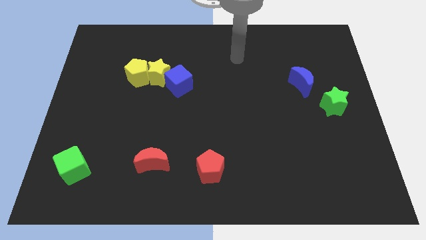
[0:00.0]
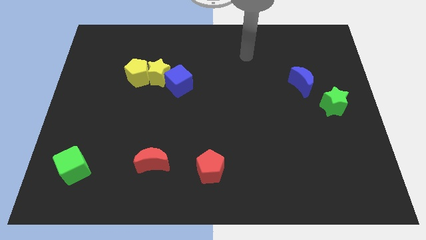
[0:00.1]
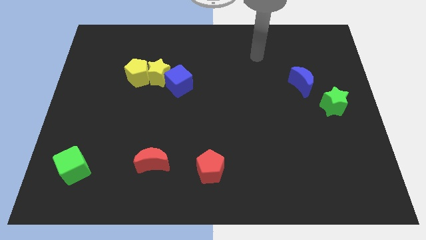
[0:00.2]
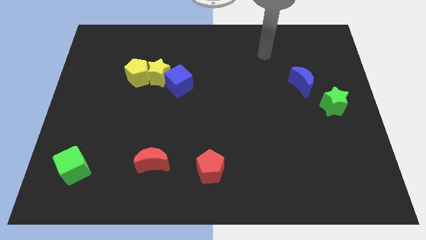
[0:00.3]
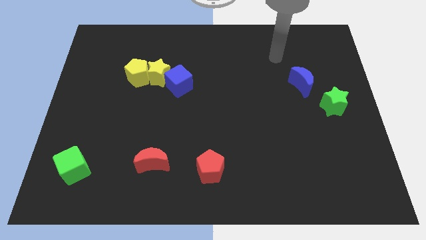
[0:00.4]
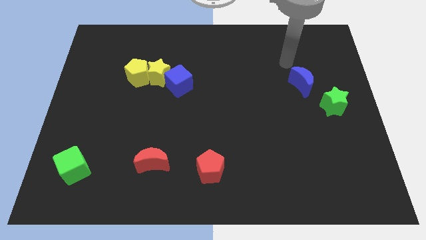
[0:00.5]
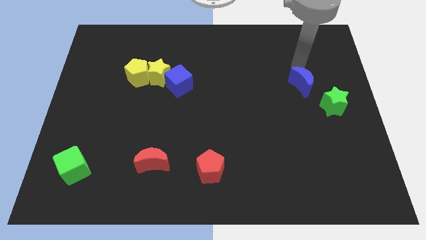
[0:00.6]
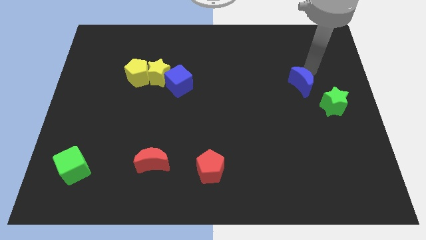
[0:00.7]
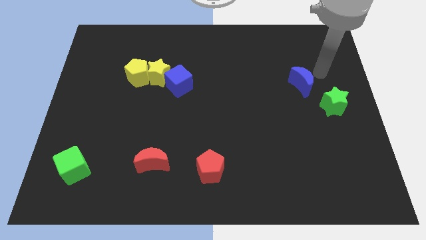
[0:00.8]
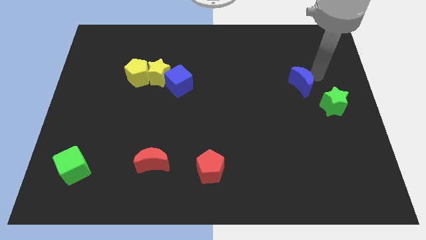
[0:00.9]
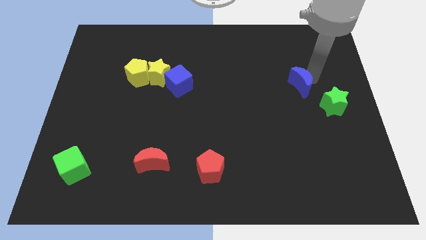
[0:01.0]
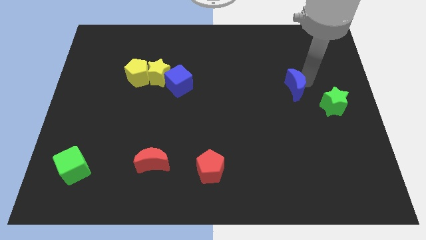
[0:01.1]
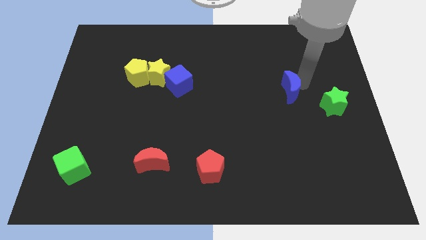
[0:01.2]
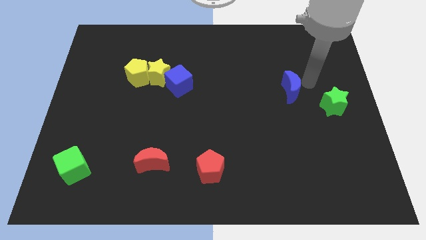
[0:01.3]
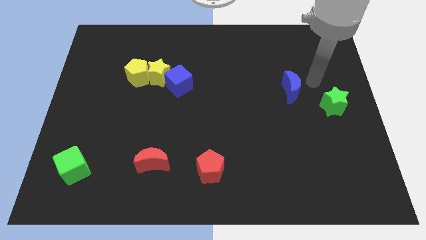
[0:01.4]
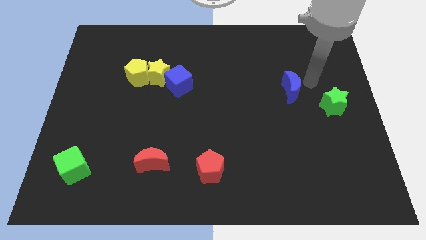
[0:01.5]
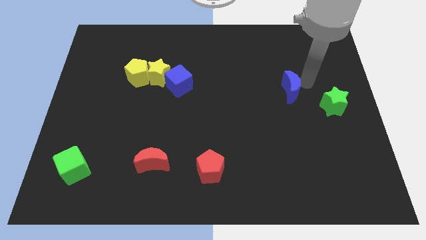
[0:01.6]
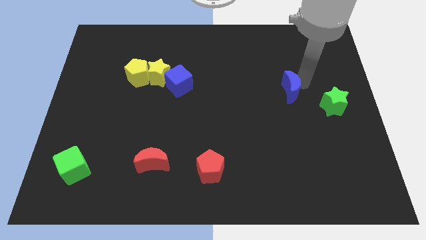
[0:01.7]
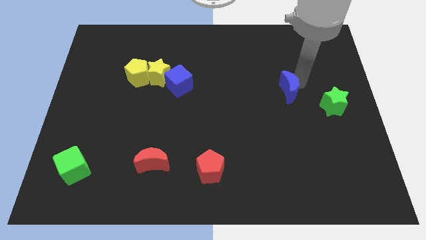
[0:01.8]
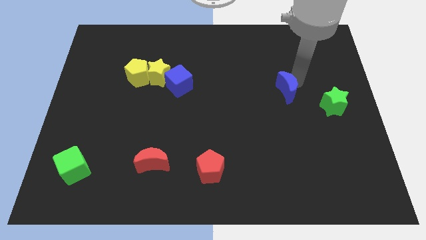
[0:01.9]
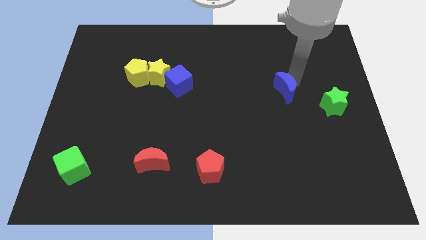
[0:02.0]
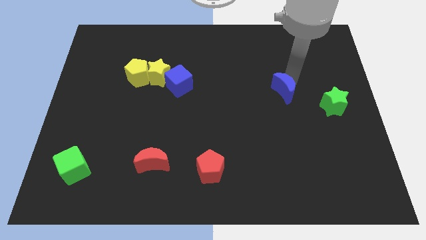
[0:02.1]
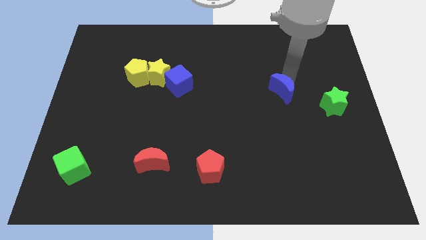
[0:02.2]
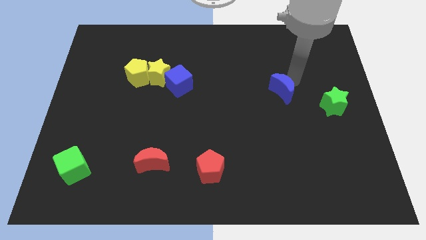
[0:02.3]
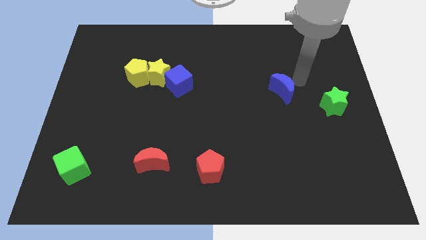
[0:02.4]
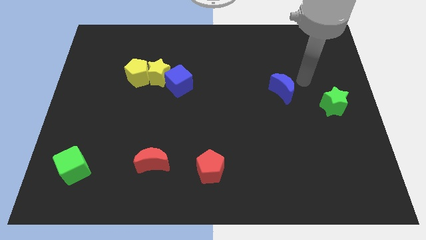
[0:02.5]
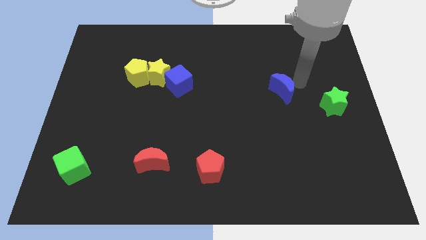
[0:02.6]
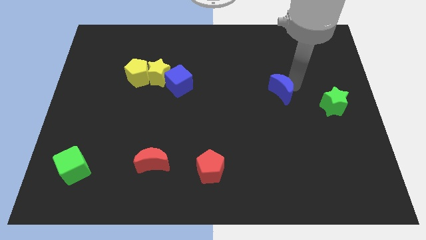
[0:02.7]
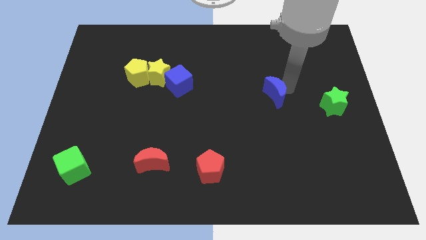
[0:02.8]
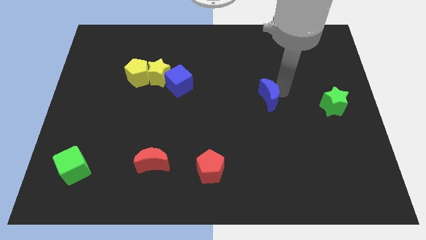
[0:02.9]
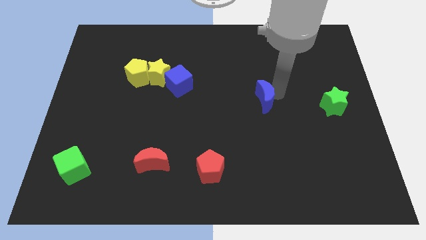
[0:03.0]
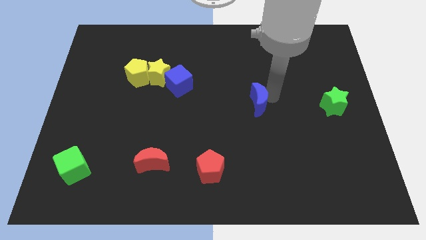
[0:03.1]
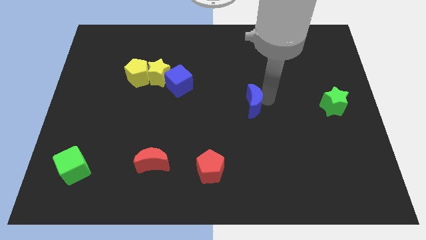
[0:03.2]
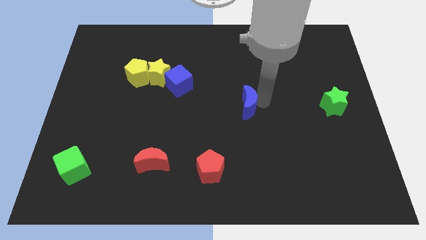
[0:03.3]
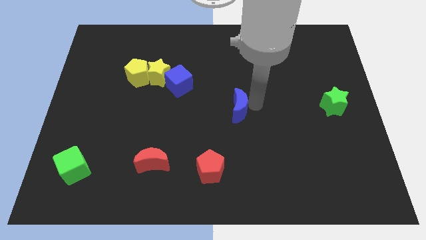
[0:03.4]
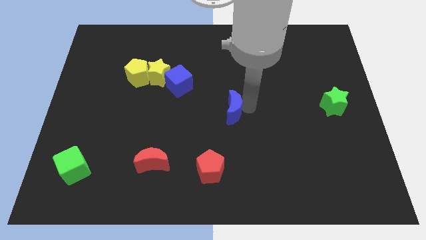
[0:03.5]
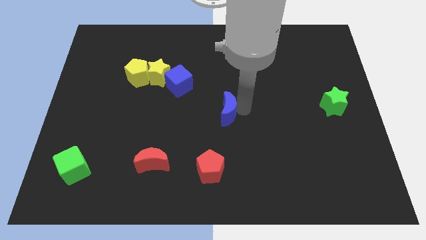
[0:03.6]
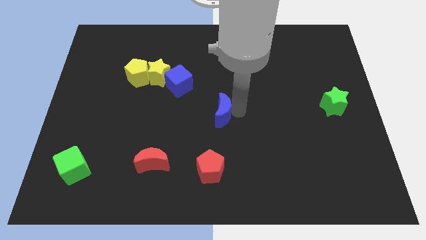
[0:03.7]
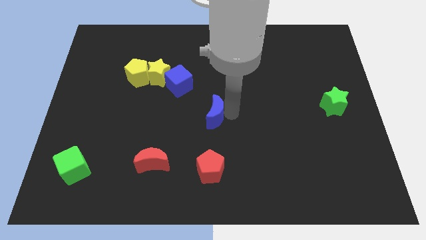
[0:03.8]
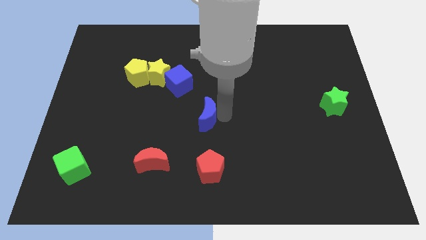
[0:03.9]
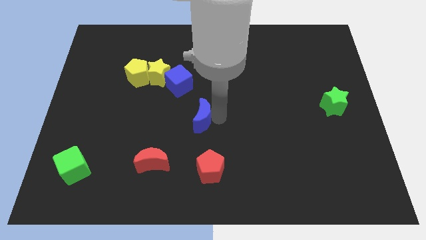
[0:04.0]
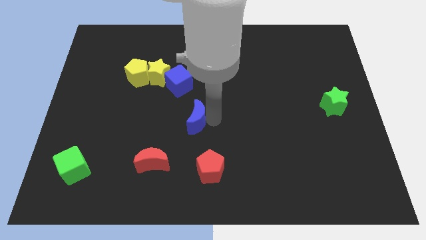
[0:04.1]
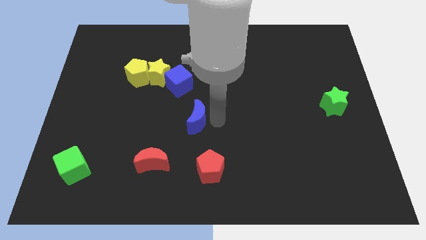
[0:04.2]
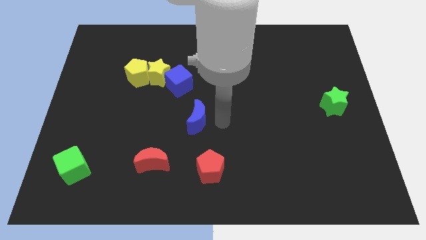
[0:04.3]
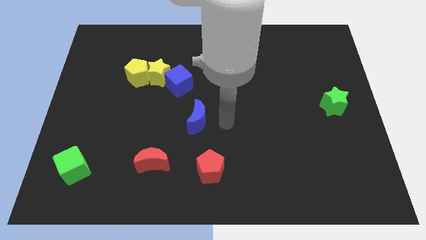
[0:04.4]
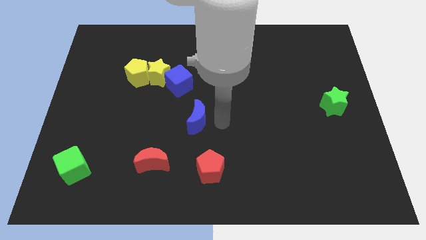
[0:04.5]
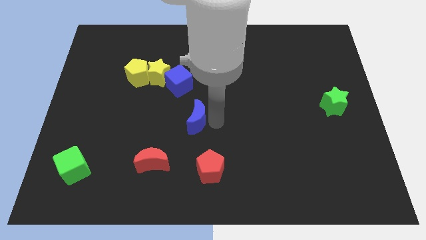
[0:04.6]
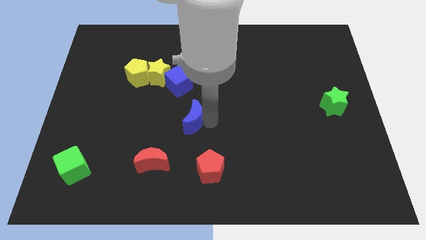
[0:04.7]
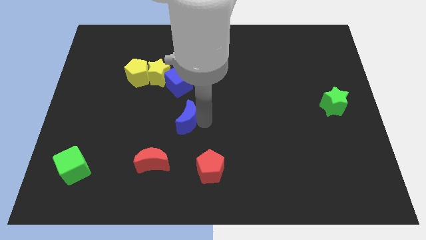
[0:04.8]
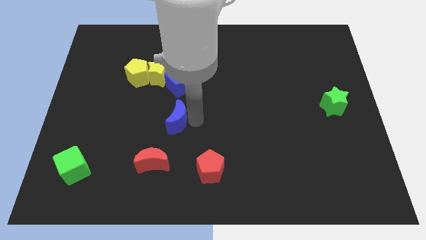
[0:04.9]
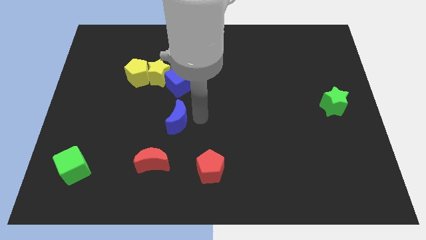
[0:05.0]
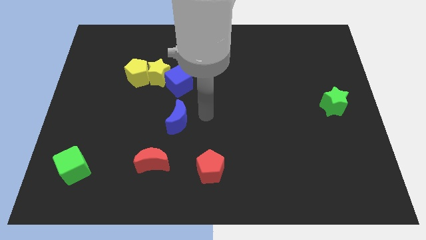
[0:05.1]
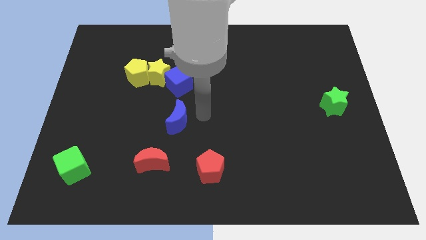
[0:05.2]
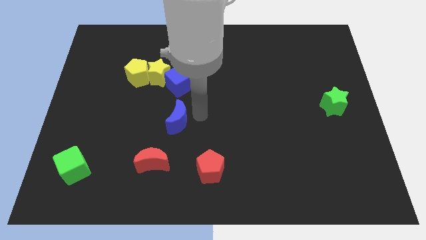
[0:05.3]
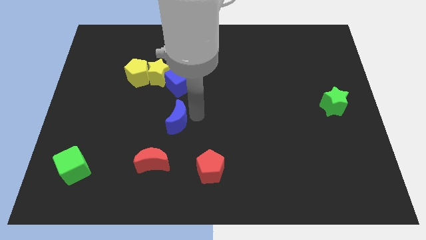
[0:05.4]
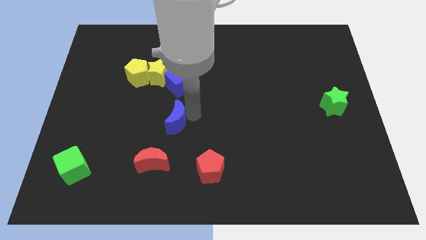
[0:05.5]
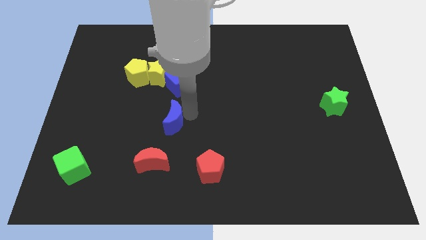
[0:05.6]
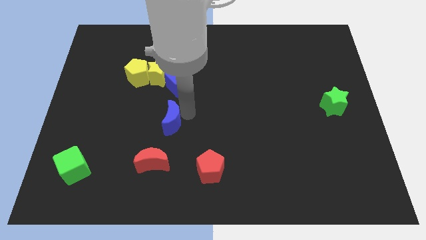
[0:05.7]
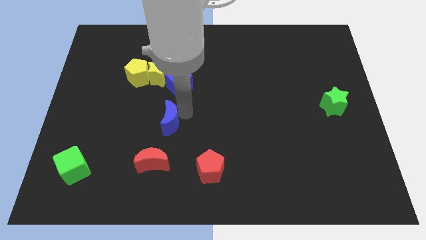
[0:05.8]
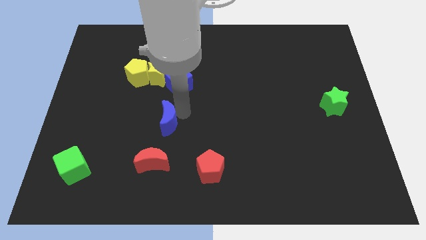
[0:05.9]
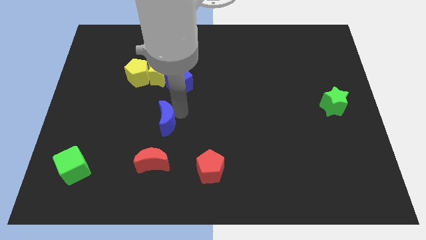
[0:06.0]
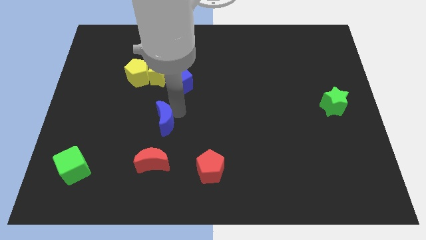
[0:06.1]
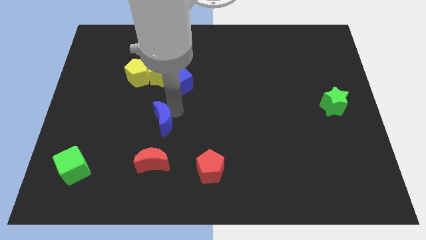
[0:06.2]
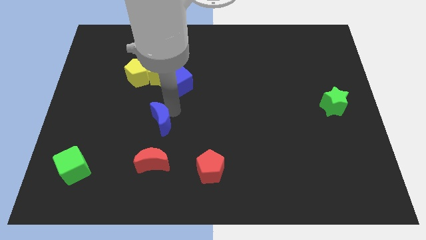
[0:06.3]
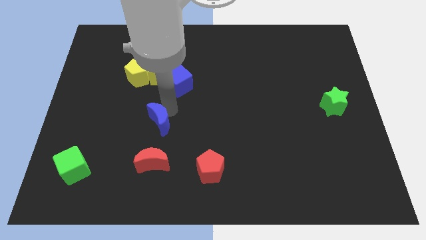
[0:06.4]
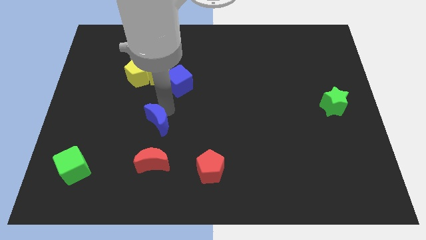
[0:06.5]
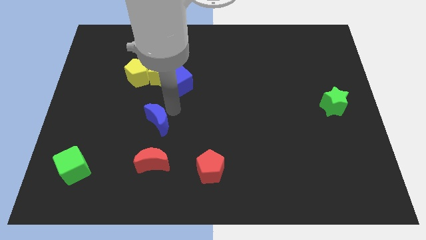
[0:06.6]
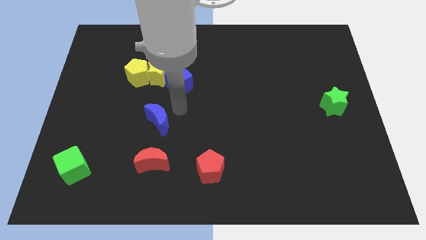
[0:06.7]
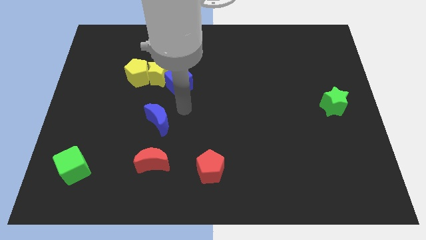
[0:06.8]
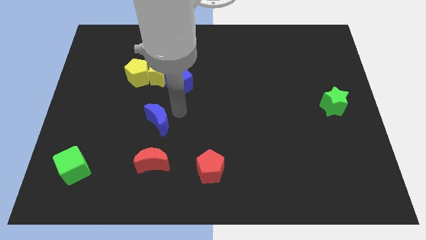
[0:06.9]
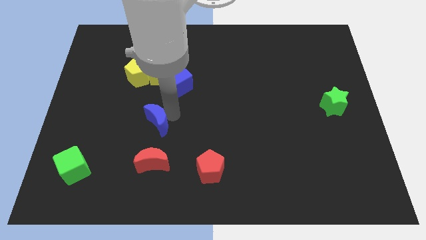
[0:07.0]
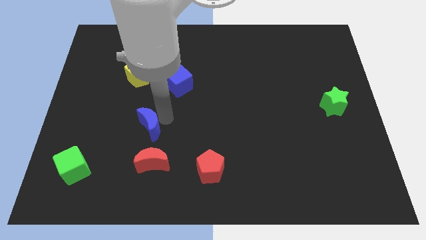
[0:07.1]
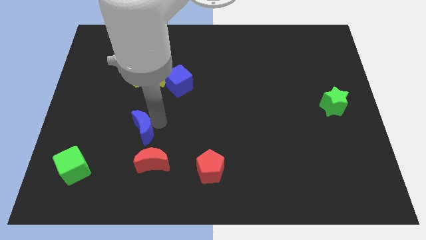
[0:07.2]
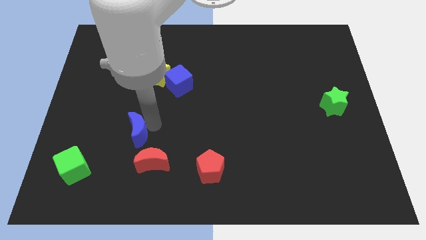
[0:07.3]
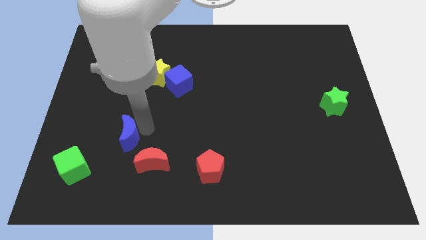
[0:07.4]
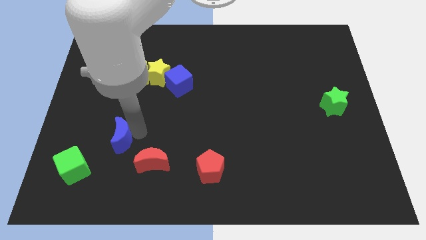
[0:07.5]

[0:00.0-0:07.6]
push the blue moon to the top right side of the green cube
